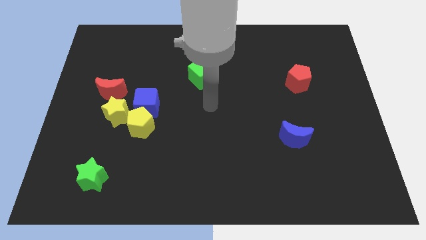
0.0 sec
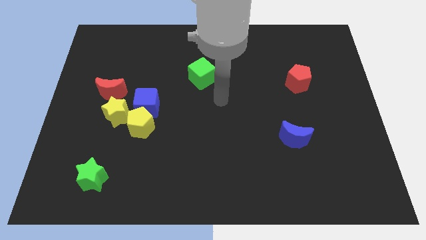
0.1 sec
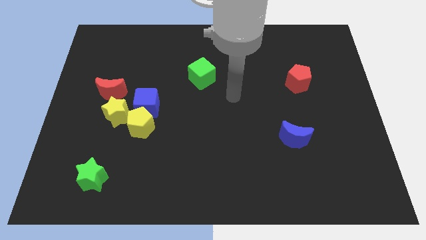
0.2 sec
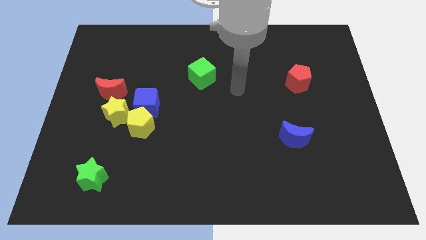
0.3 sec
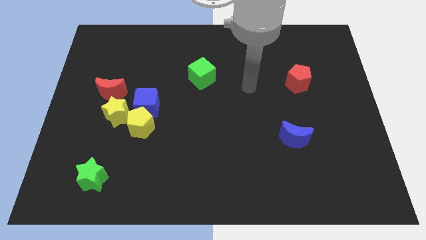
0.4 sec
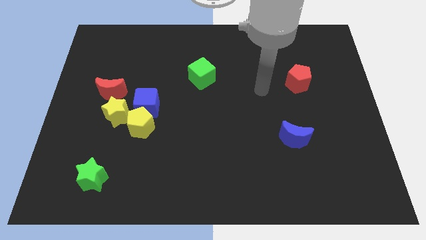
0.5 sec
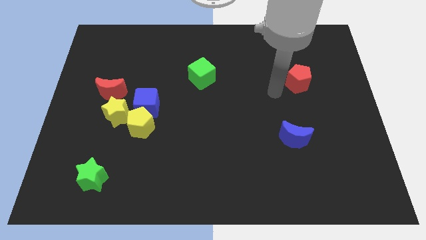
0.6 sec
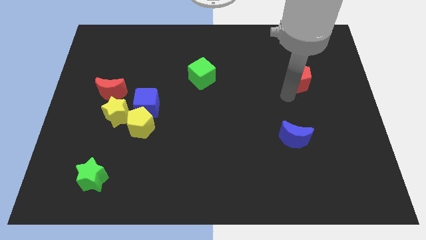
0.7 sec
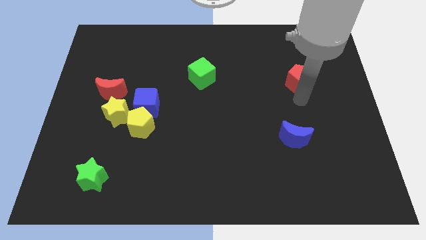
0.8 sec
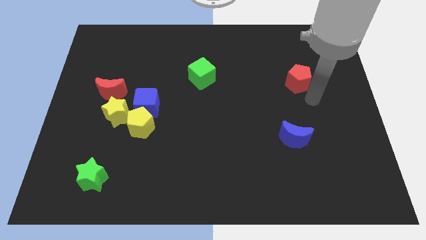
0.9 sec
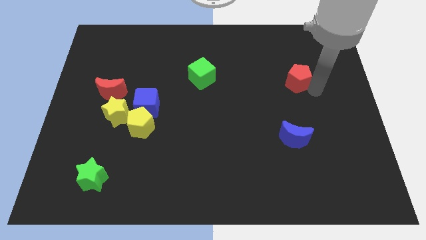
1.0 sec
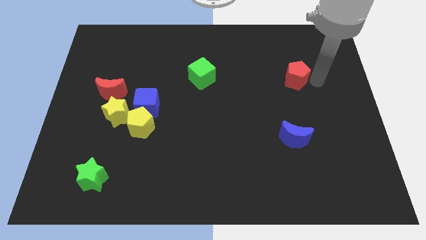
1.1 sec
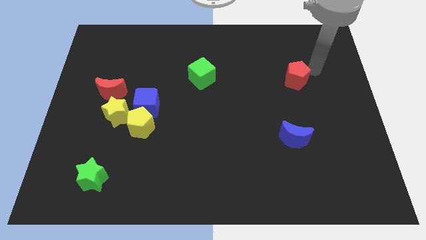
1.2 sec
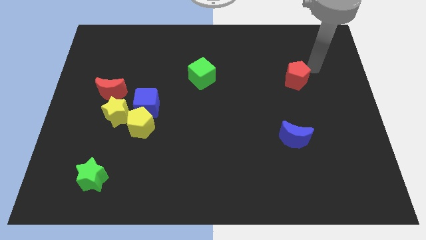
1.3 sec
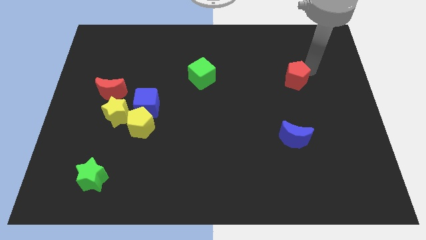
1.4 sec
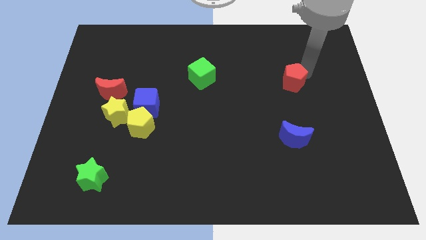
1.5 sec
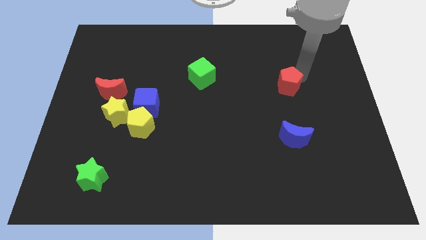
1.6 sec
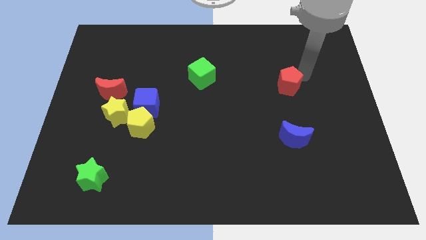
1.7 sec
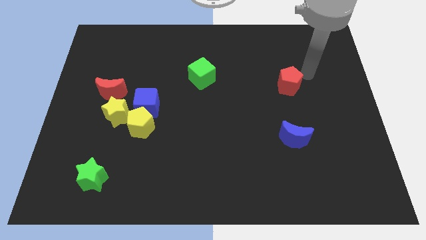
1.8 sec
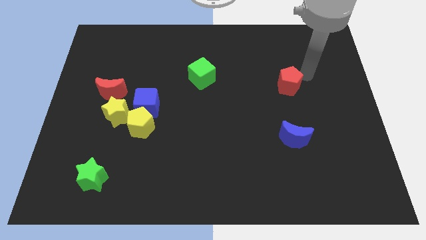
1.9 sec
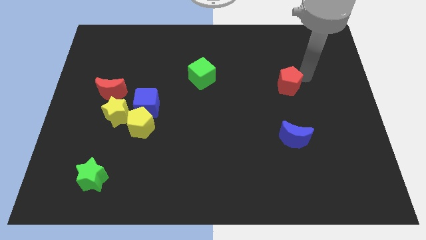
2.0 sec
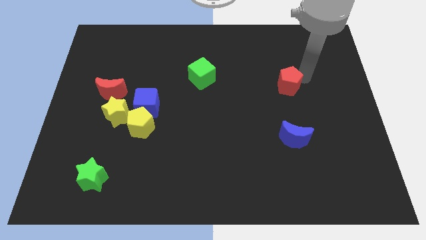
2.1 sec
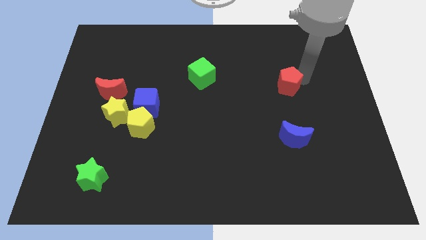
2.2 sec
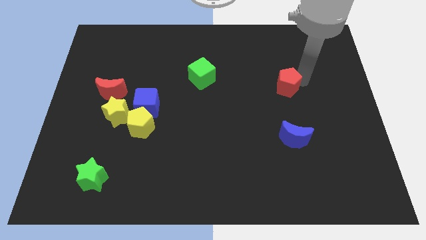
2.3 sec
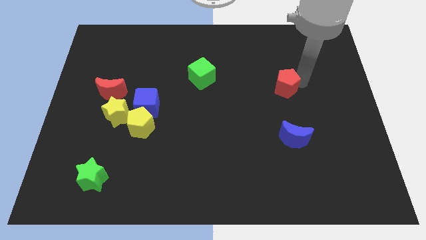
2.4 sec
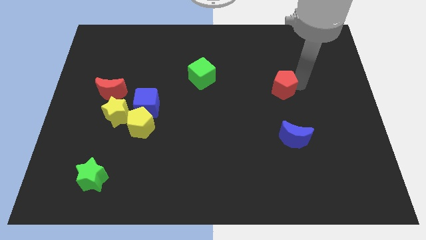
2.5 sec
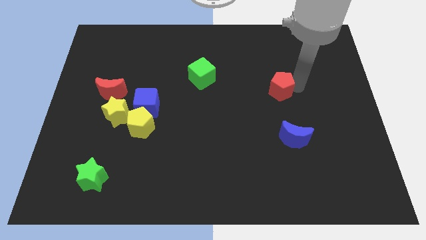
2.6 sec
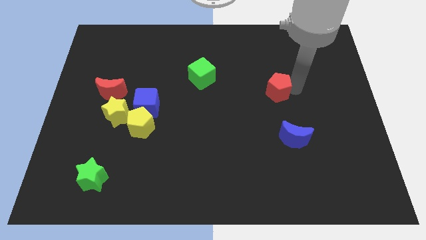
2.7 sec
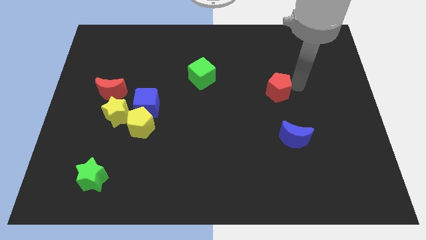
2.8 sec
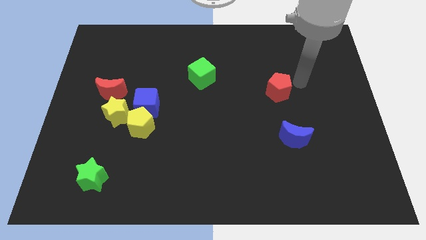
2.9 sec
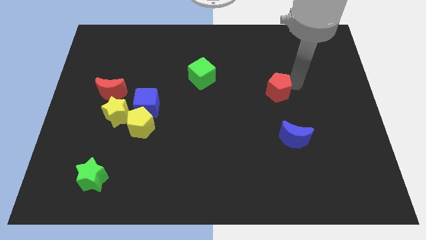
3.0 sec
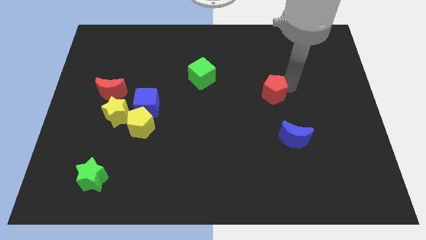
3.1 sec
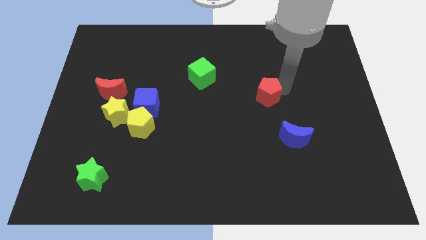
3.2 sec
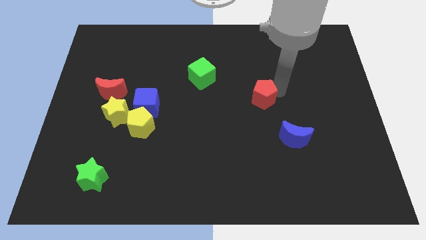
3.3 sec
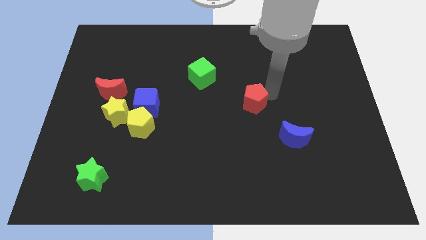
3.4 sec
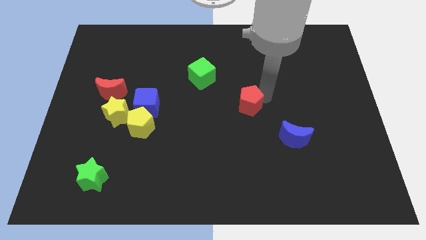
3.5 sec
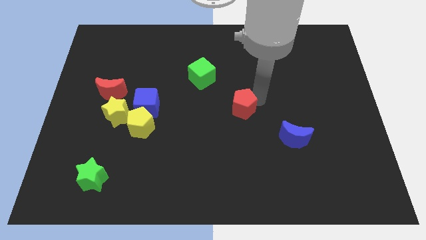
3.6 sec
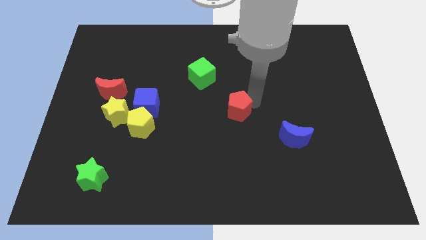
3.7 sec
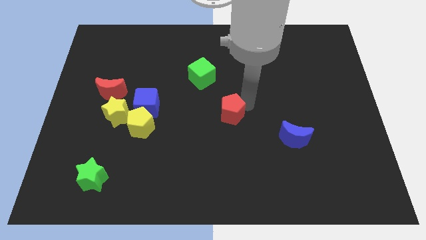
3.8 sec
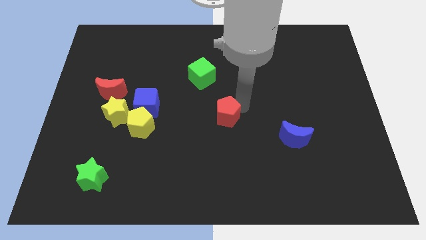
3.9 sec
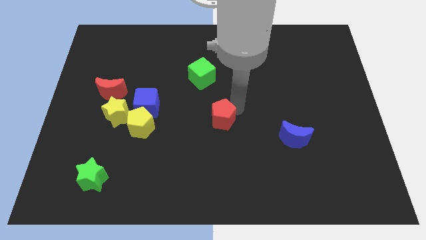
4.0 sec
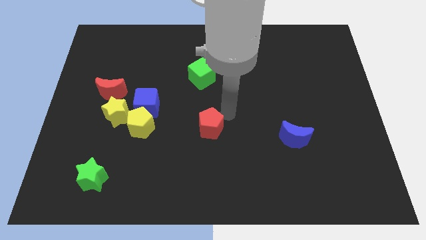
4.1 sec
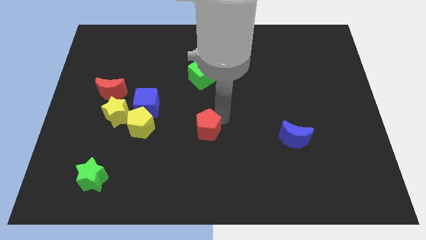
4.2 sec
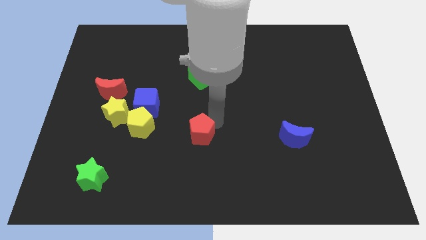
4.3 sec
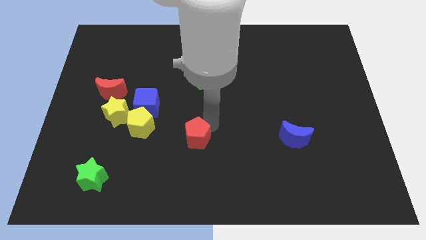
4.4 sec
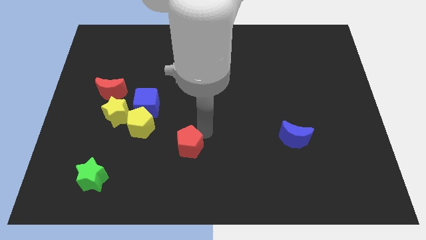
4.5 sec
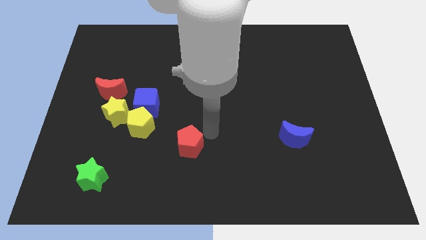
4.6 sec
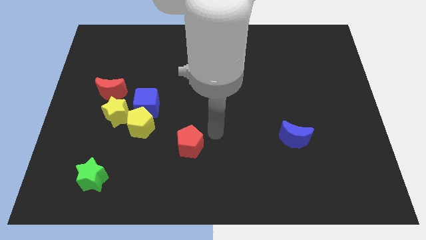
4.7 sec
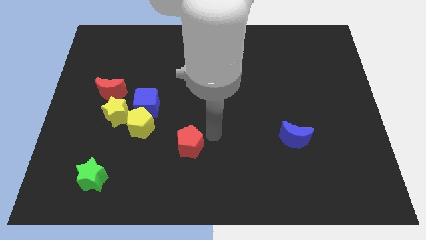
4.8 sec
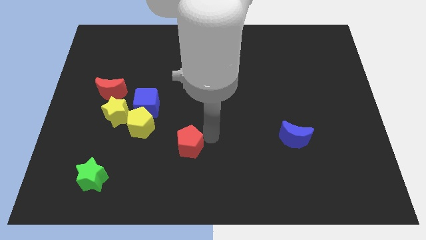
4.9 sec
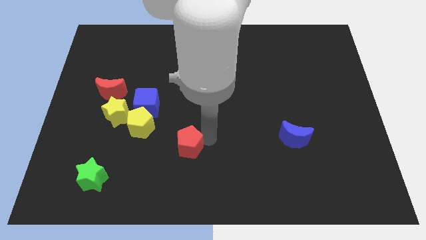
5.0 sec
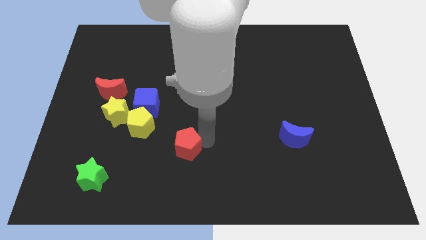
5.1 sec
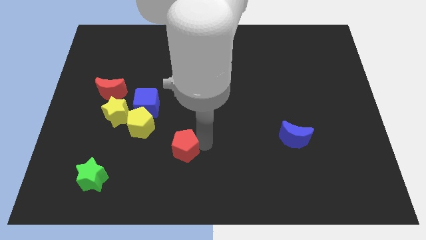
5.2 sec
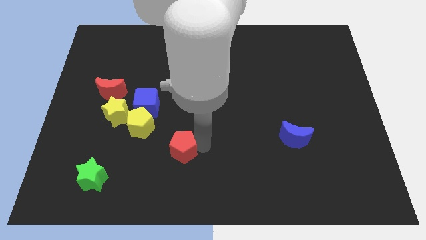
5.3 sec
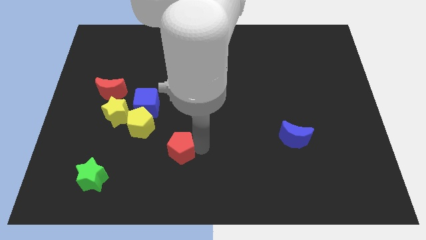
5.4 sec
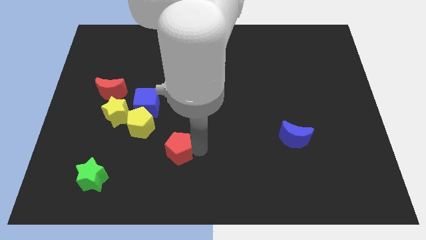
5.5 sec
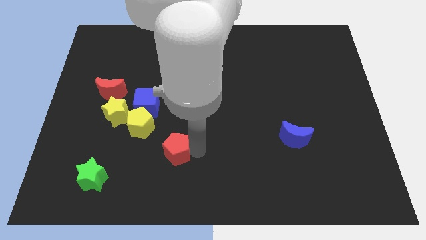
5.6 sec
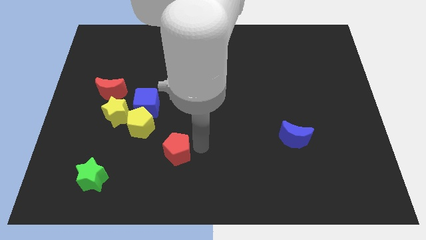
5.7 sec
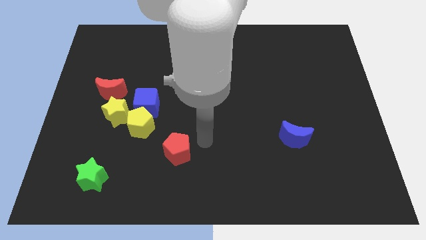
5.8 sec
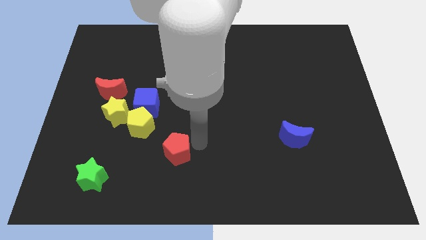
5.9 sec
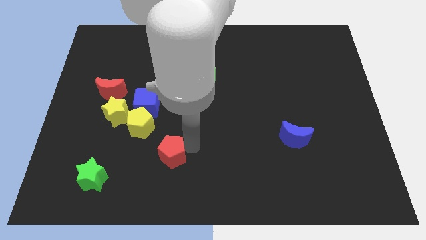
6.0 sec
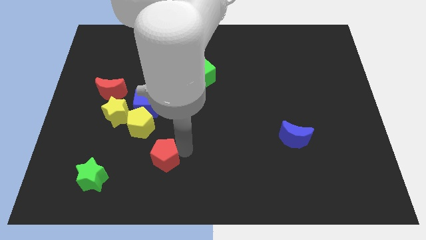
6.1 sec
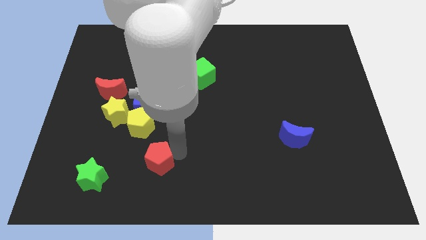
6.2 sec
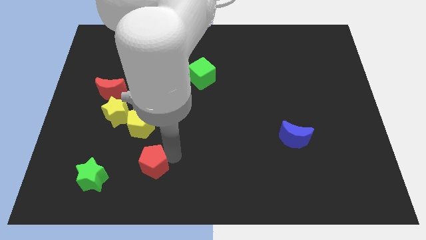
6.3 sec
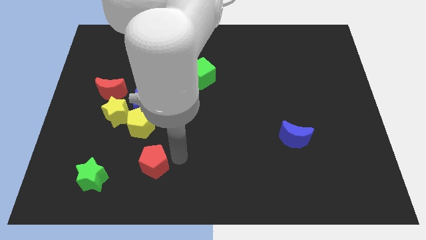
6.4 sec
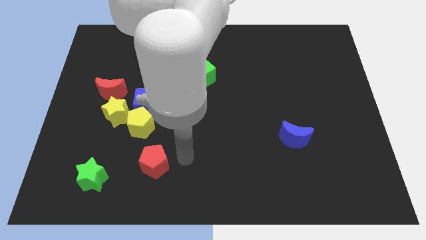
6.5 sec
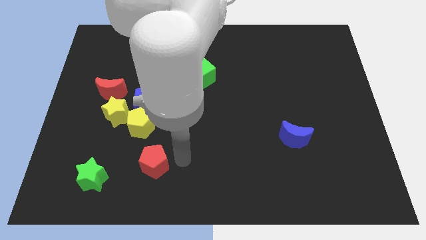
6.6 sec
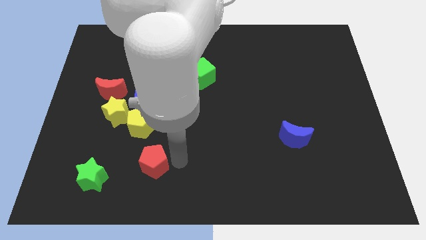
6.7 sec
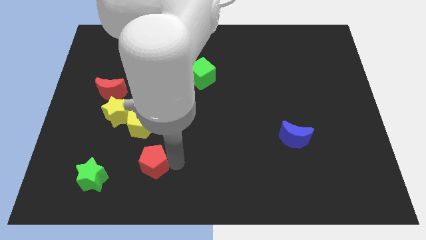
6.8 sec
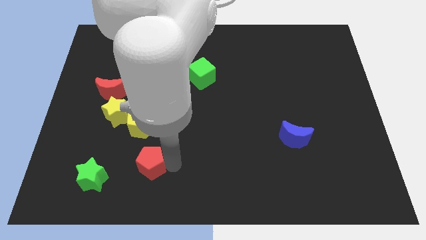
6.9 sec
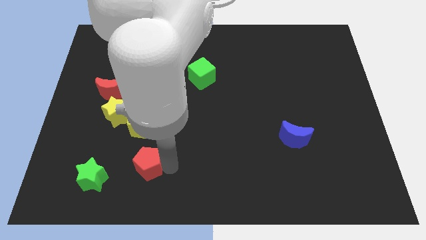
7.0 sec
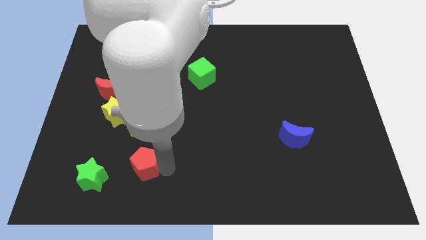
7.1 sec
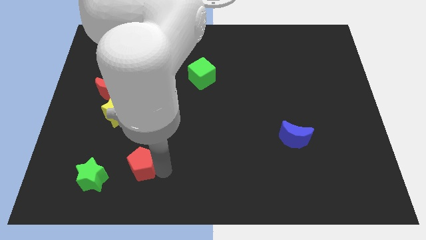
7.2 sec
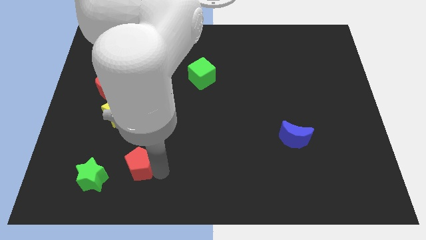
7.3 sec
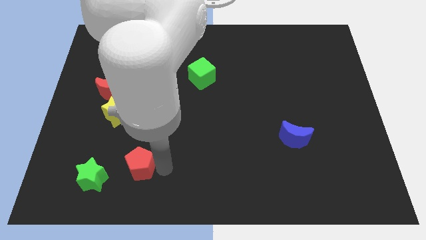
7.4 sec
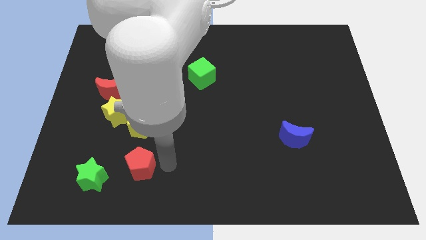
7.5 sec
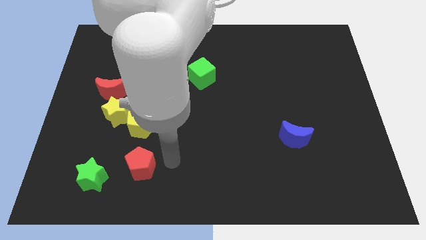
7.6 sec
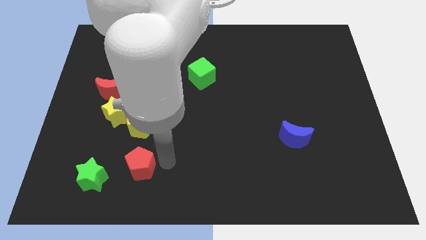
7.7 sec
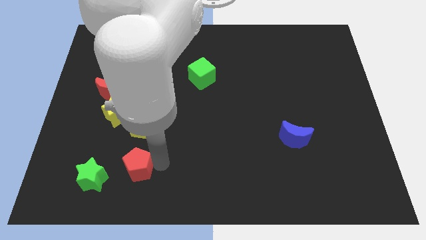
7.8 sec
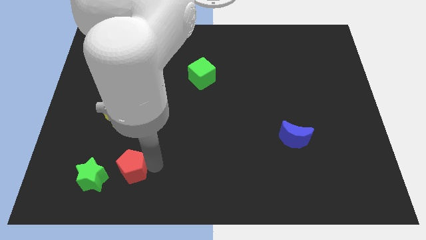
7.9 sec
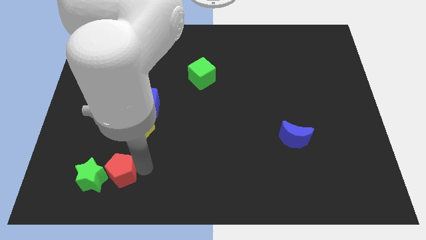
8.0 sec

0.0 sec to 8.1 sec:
slide the red pentagon next to the green star
